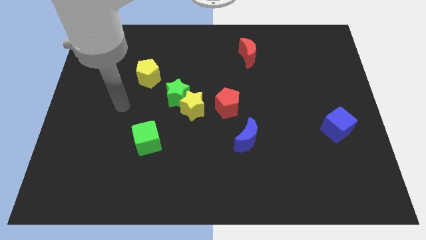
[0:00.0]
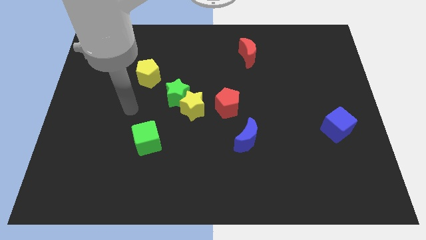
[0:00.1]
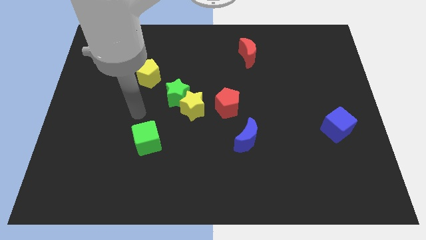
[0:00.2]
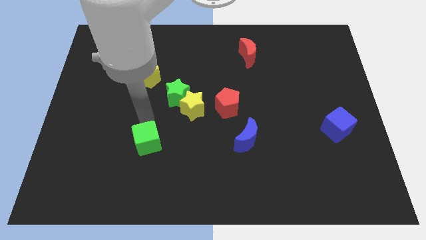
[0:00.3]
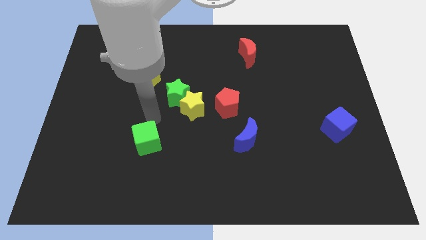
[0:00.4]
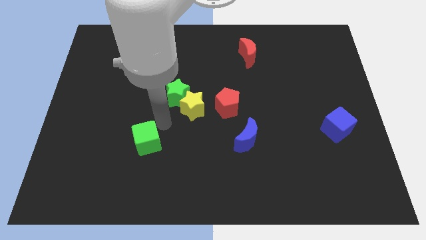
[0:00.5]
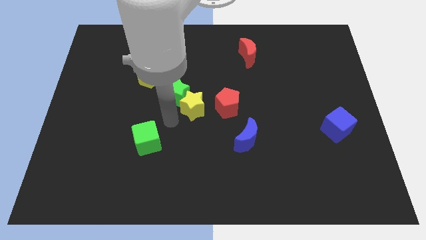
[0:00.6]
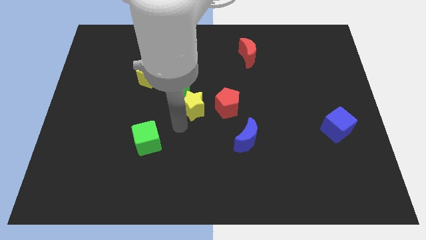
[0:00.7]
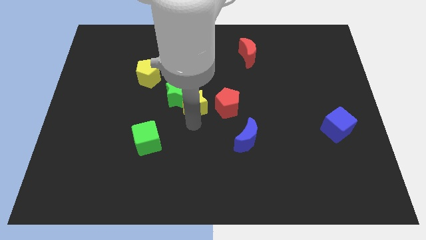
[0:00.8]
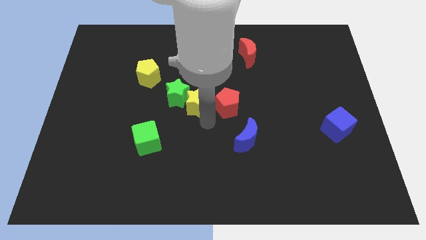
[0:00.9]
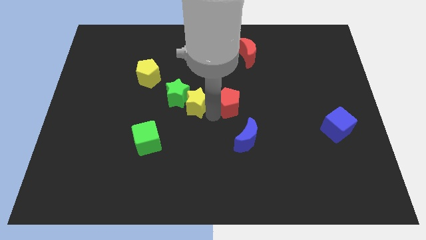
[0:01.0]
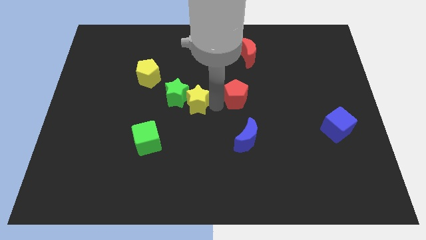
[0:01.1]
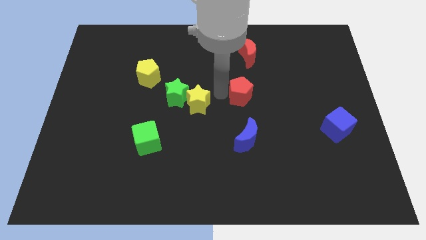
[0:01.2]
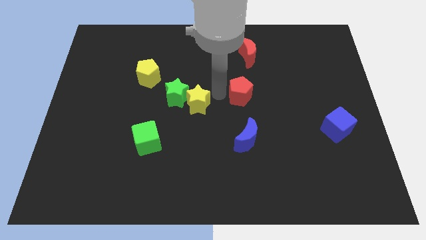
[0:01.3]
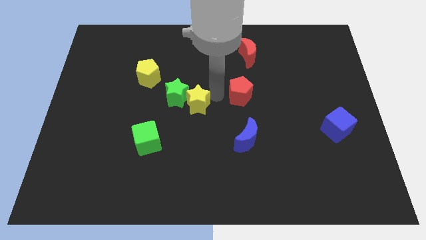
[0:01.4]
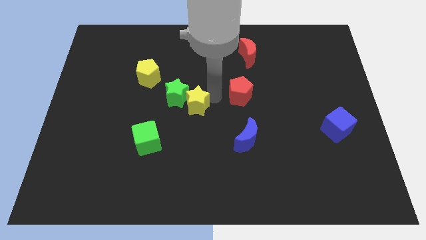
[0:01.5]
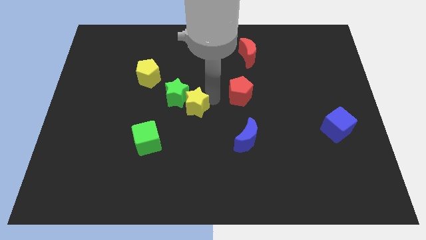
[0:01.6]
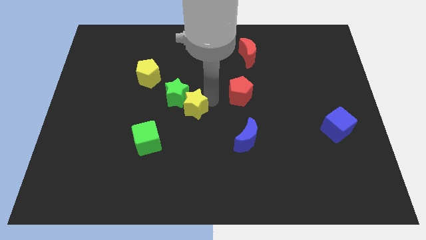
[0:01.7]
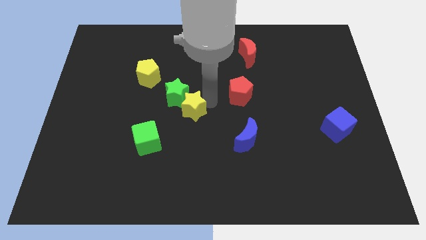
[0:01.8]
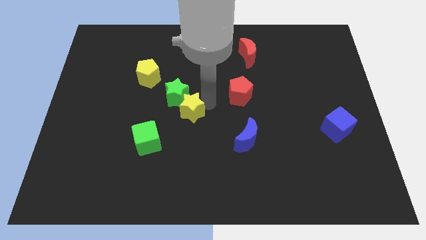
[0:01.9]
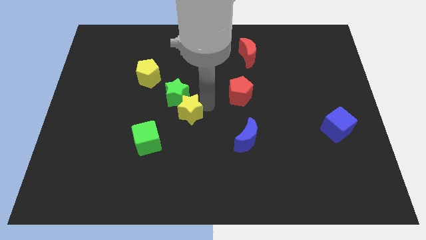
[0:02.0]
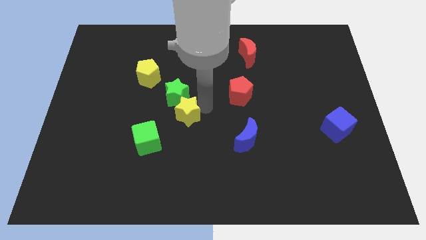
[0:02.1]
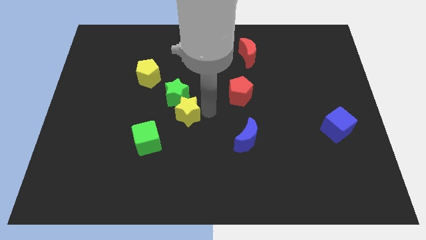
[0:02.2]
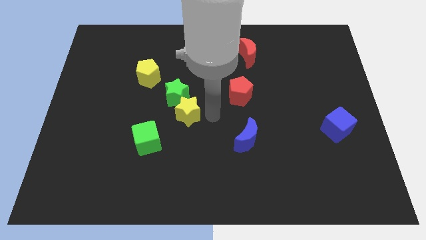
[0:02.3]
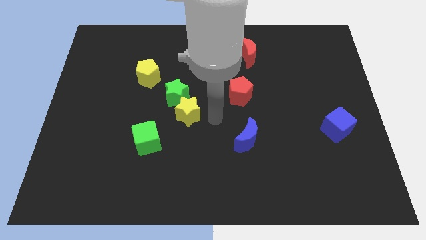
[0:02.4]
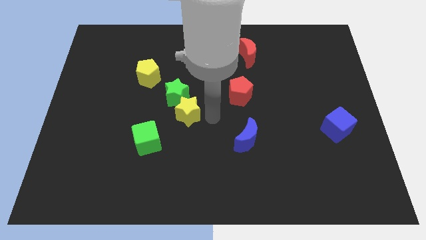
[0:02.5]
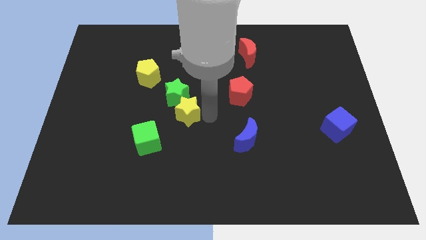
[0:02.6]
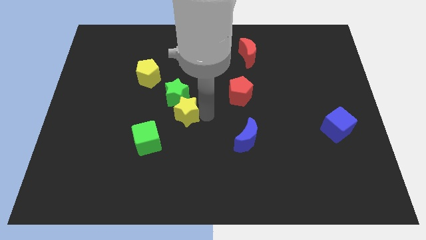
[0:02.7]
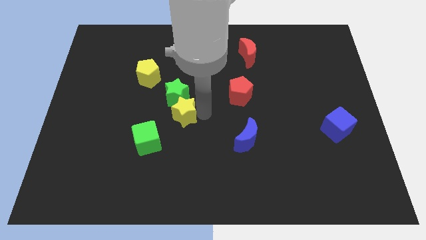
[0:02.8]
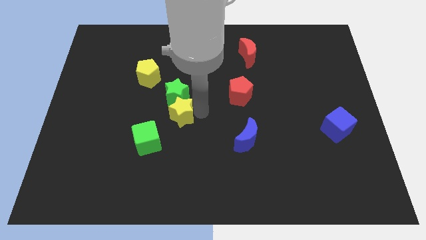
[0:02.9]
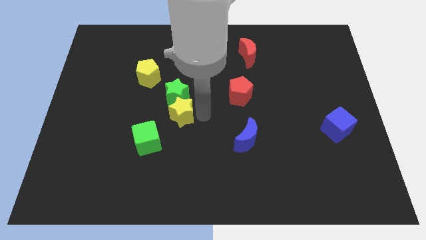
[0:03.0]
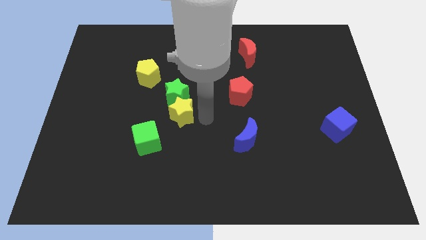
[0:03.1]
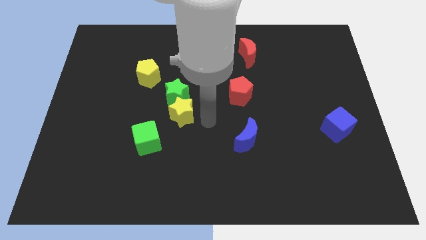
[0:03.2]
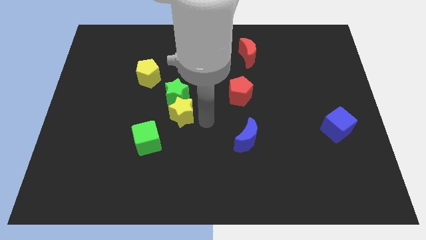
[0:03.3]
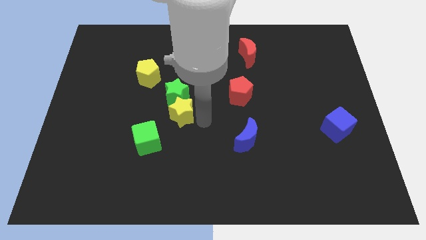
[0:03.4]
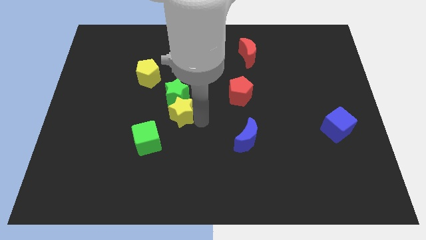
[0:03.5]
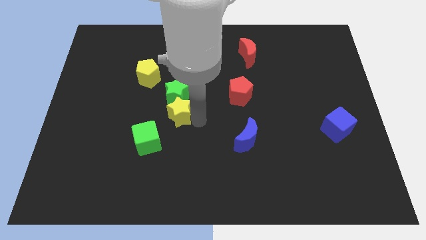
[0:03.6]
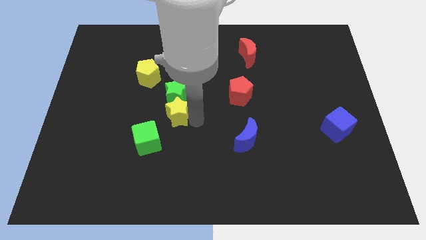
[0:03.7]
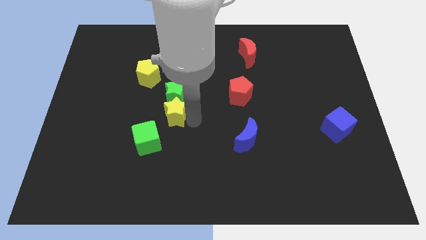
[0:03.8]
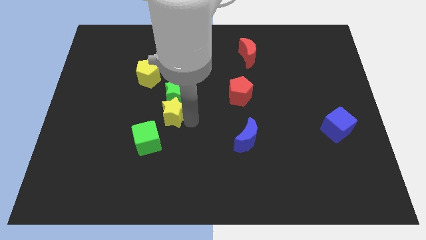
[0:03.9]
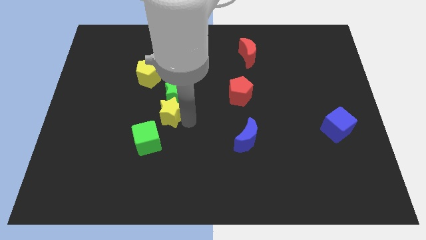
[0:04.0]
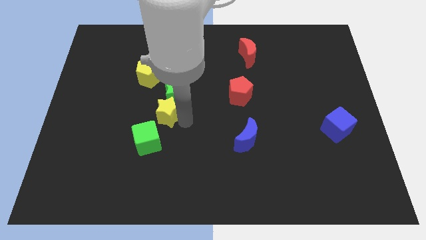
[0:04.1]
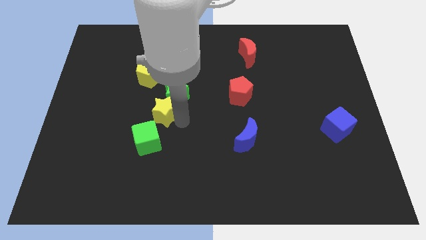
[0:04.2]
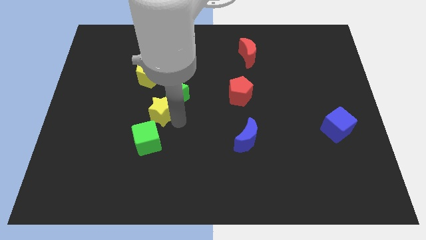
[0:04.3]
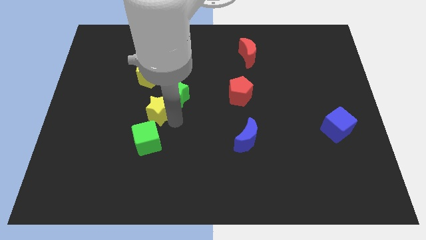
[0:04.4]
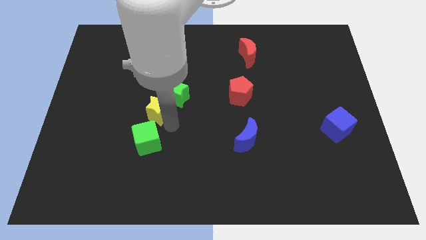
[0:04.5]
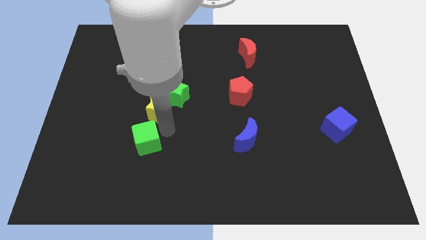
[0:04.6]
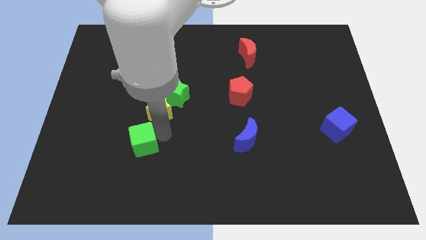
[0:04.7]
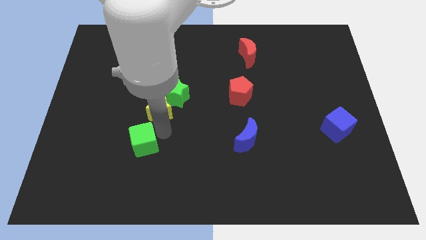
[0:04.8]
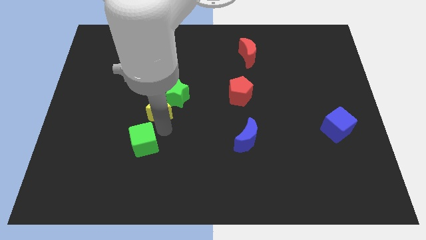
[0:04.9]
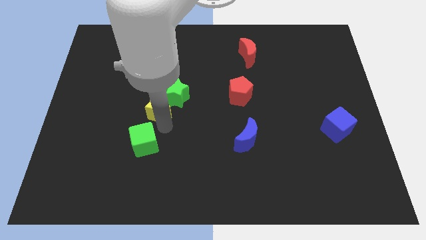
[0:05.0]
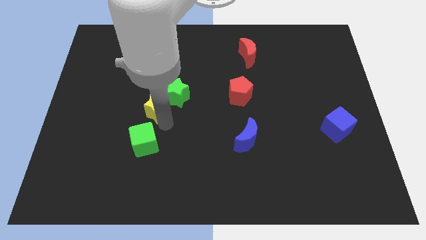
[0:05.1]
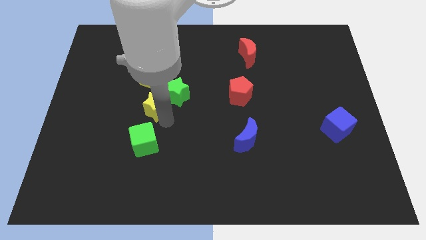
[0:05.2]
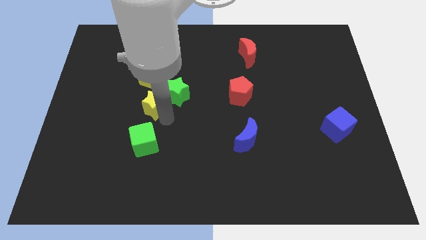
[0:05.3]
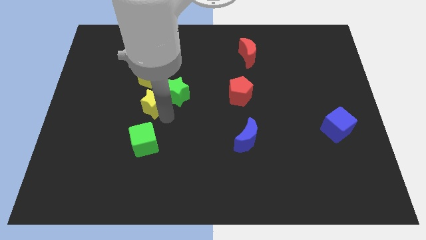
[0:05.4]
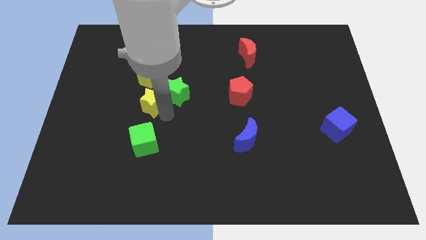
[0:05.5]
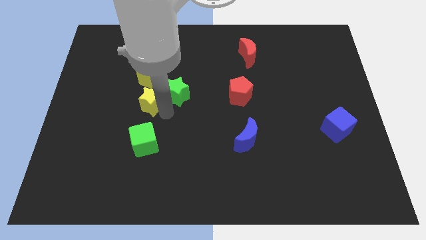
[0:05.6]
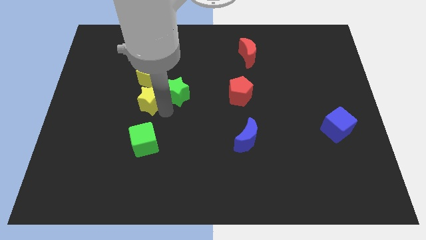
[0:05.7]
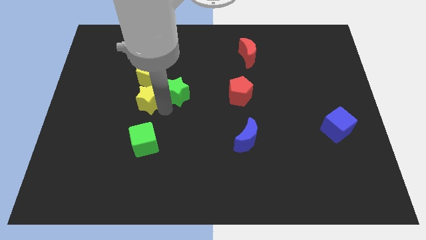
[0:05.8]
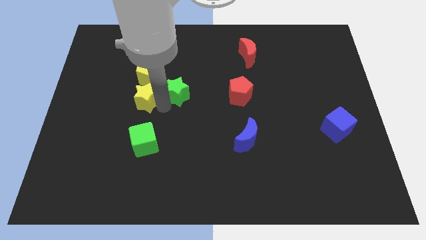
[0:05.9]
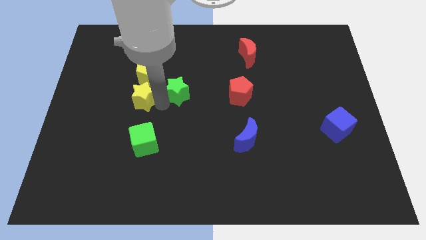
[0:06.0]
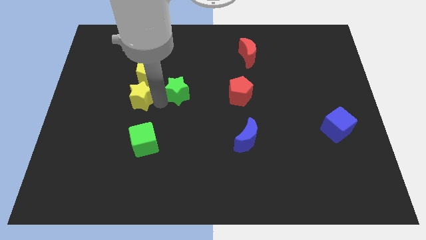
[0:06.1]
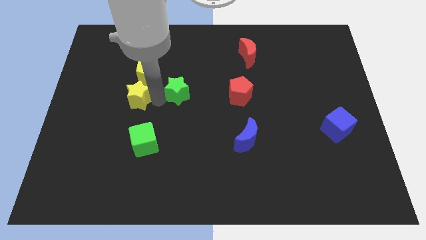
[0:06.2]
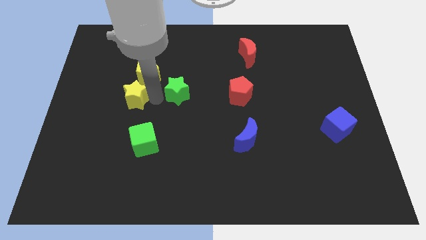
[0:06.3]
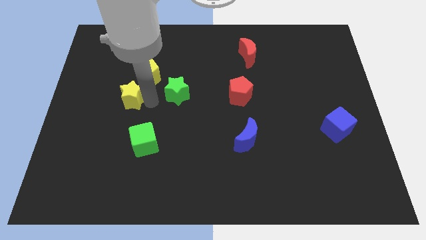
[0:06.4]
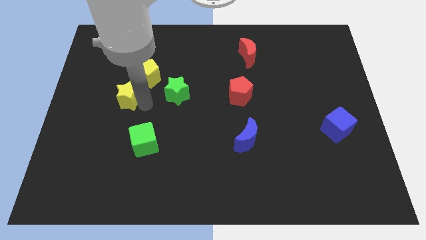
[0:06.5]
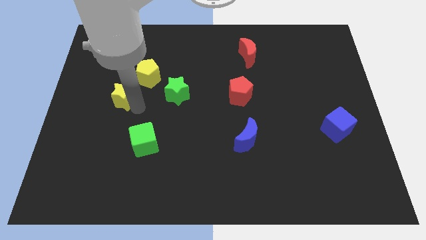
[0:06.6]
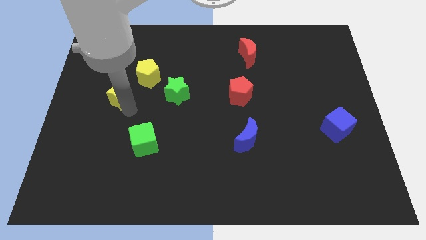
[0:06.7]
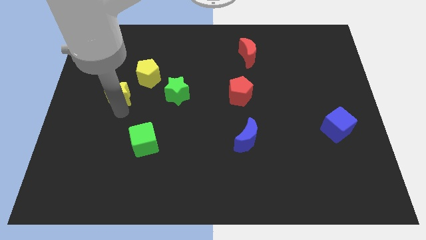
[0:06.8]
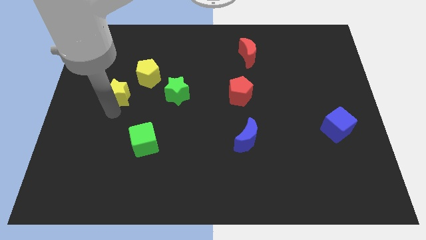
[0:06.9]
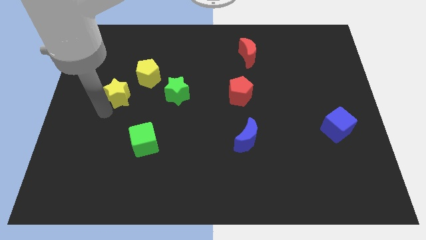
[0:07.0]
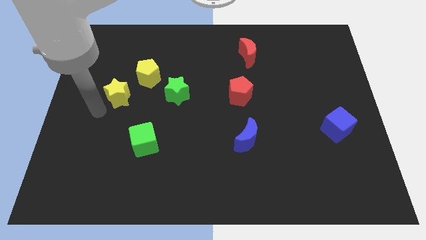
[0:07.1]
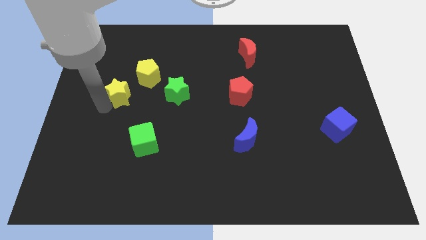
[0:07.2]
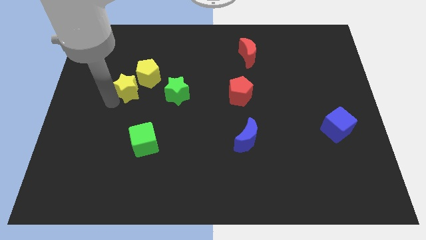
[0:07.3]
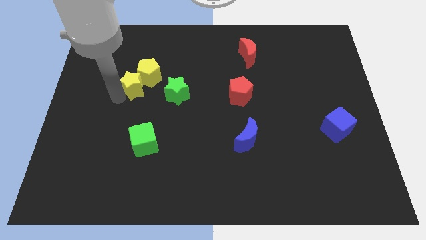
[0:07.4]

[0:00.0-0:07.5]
move the yellow star to the yellow pentagon
